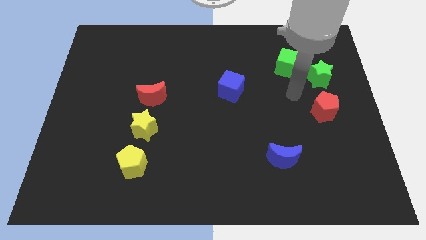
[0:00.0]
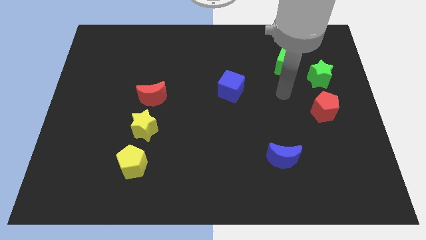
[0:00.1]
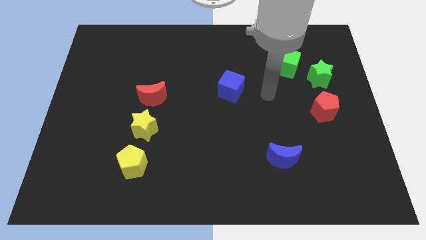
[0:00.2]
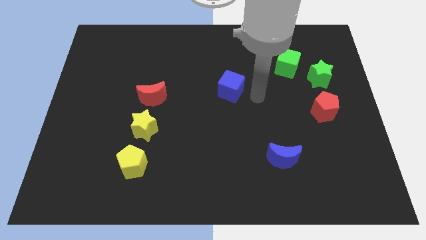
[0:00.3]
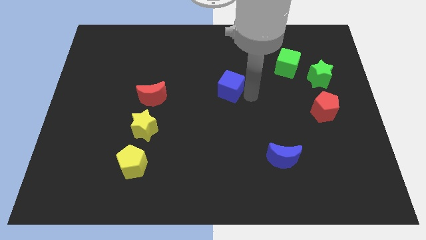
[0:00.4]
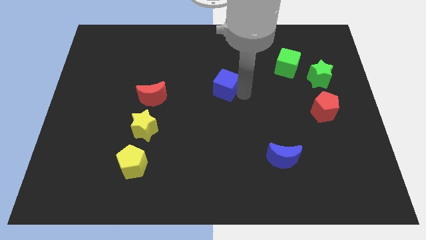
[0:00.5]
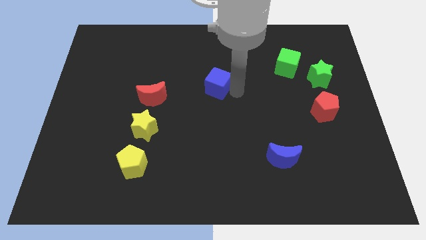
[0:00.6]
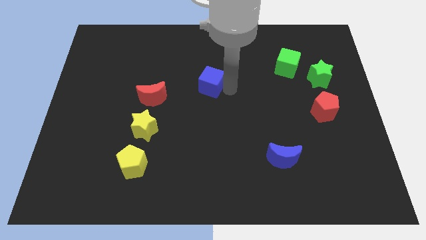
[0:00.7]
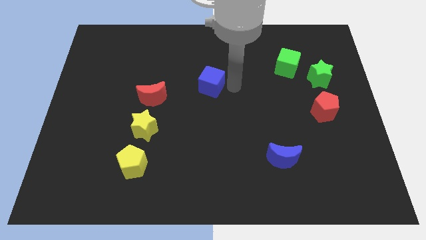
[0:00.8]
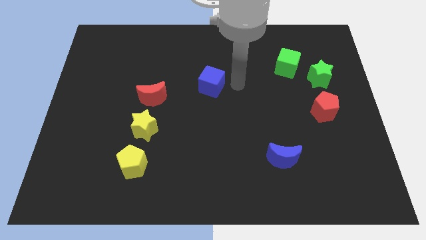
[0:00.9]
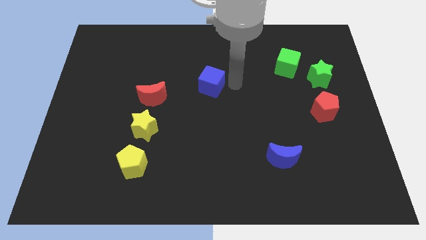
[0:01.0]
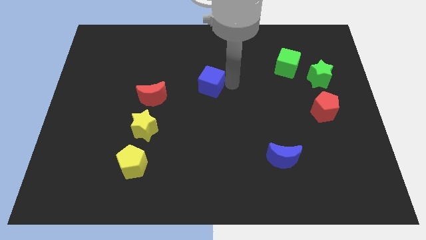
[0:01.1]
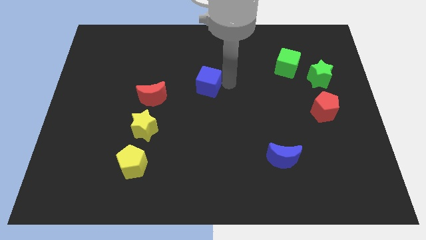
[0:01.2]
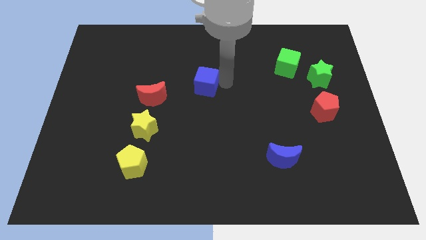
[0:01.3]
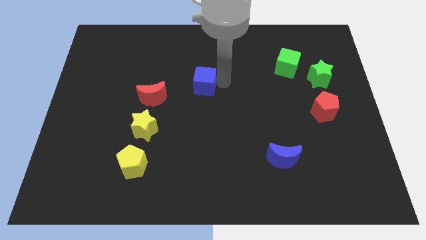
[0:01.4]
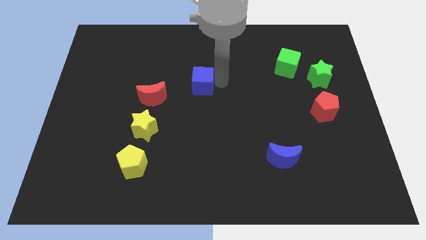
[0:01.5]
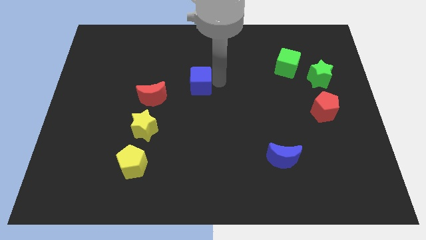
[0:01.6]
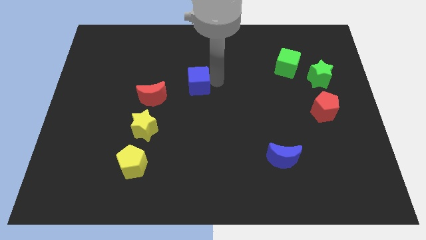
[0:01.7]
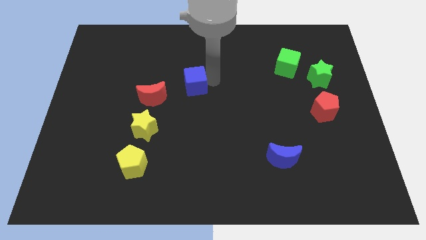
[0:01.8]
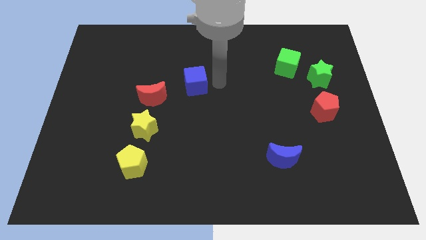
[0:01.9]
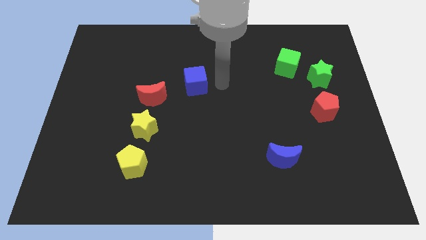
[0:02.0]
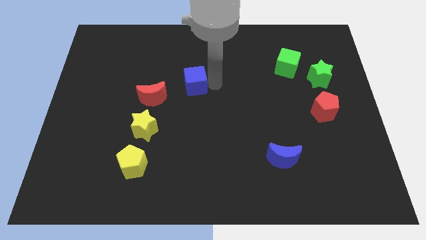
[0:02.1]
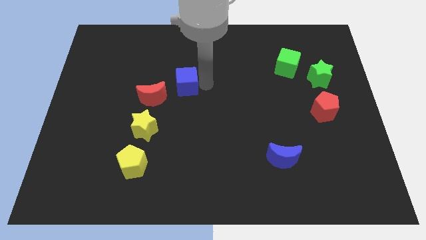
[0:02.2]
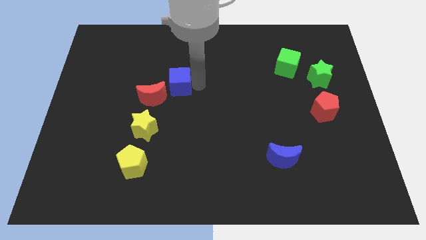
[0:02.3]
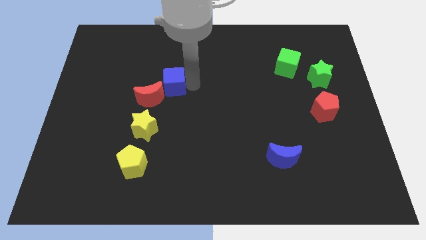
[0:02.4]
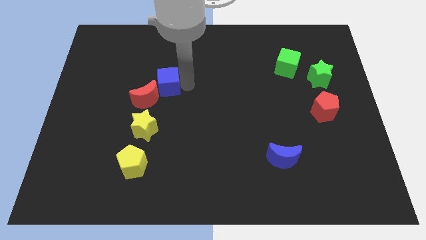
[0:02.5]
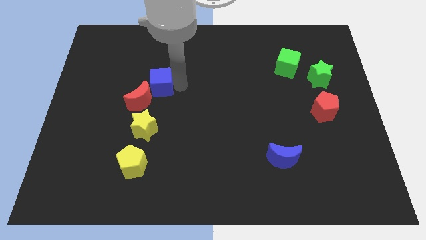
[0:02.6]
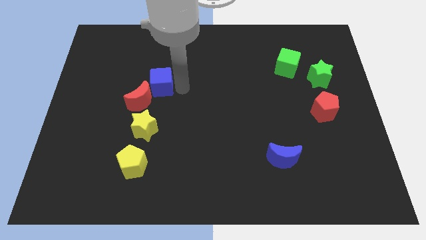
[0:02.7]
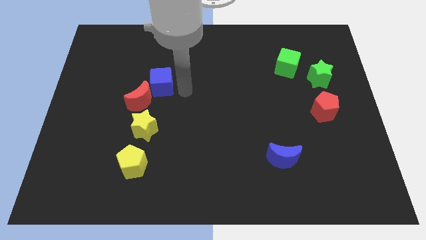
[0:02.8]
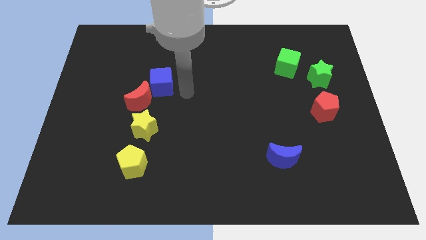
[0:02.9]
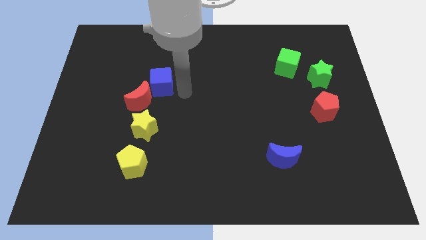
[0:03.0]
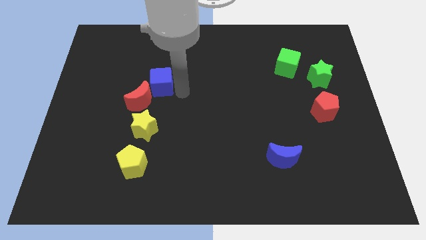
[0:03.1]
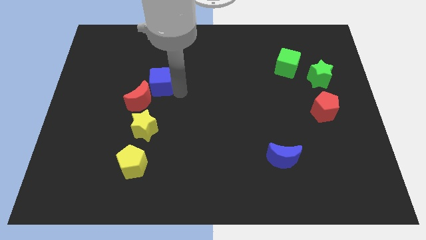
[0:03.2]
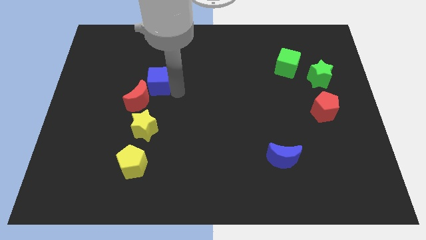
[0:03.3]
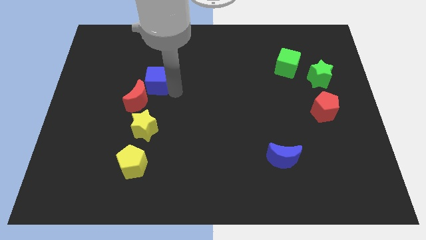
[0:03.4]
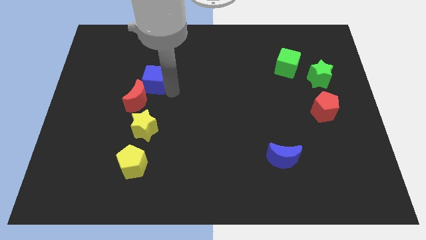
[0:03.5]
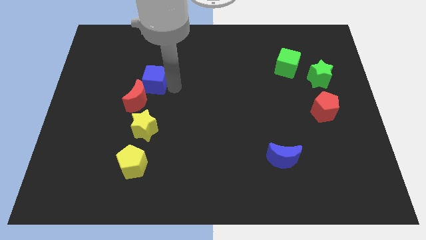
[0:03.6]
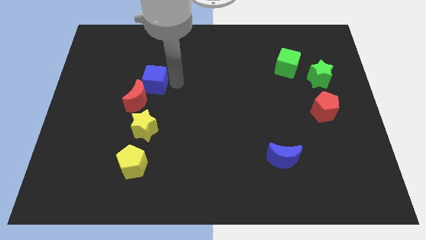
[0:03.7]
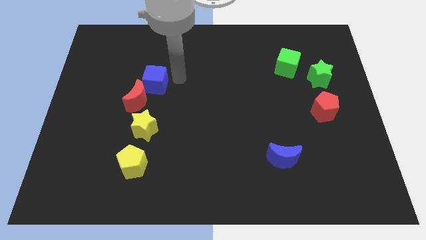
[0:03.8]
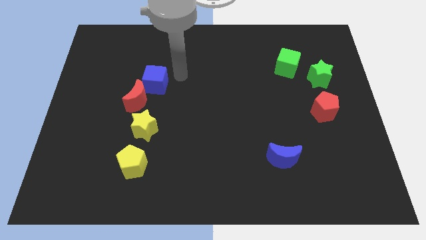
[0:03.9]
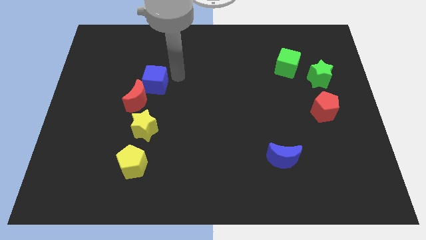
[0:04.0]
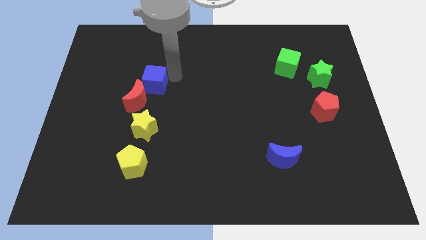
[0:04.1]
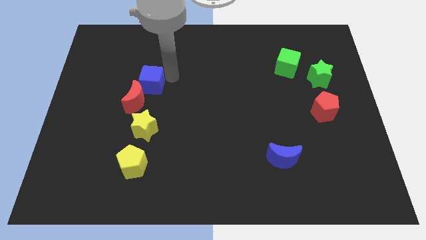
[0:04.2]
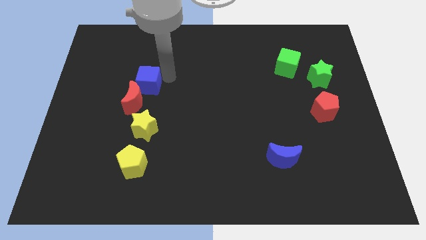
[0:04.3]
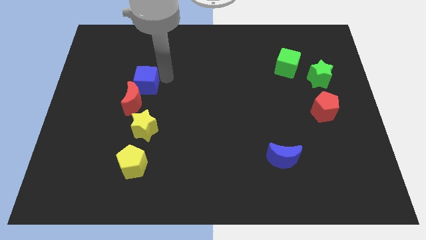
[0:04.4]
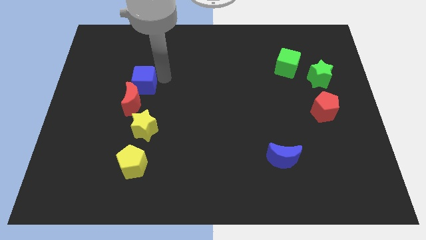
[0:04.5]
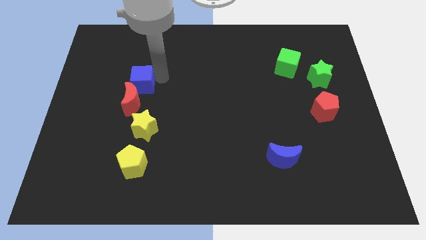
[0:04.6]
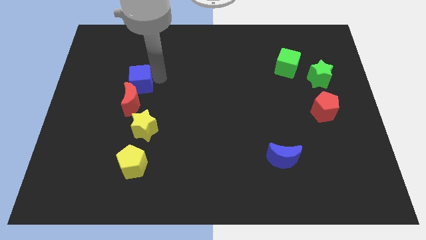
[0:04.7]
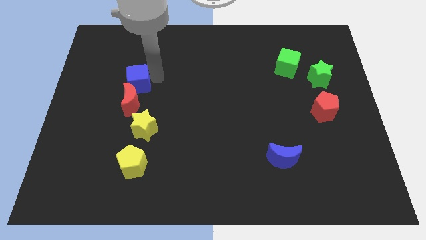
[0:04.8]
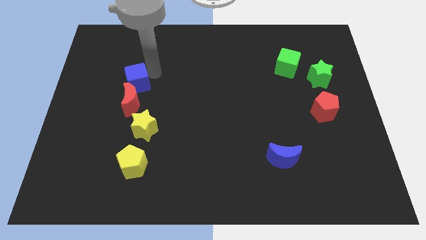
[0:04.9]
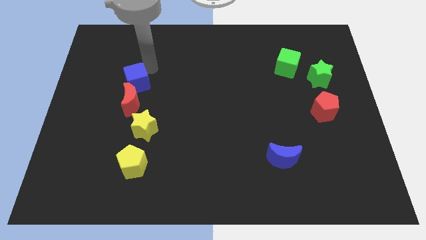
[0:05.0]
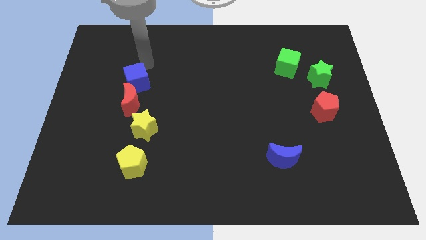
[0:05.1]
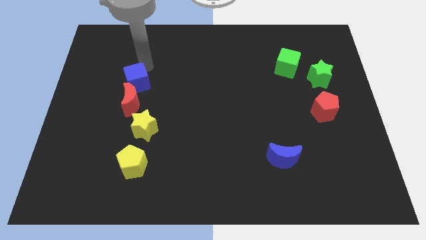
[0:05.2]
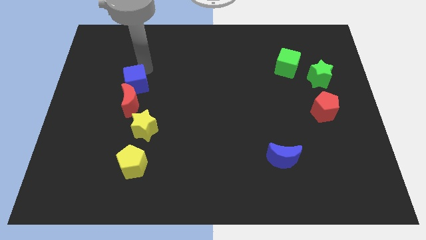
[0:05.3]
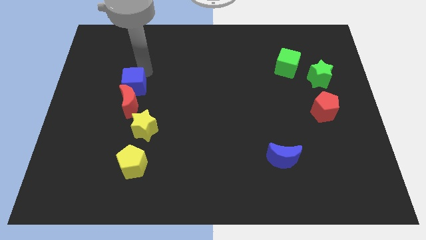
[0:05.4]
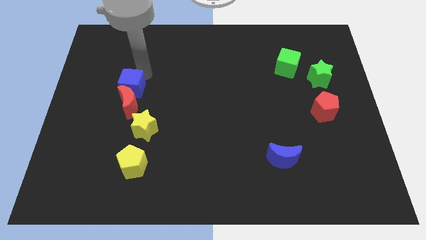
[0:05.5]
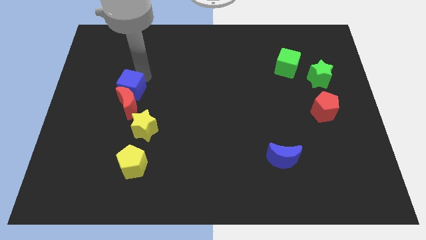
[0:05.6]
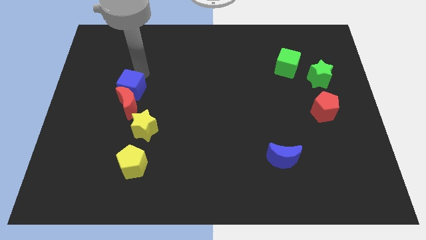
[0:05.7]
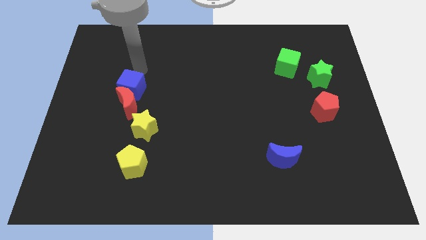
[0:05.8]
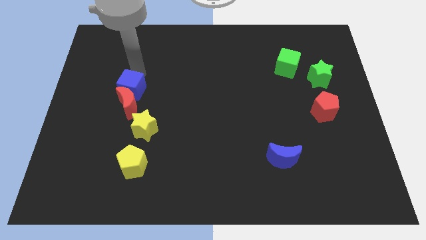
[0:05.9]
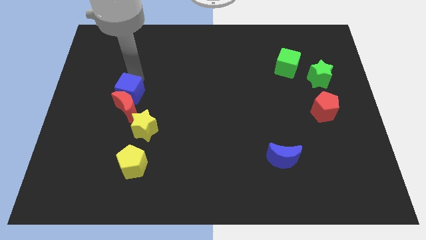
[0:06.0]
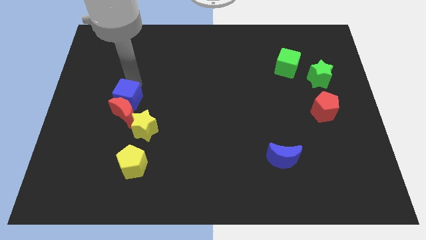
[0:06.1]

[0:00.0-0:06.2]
slide the blue cube diagonally up and to the left of the yellow star

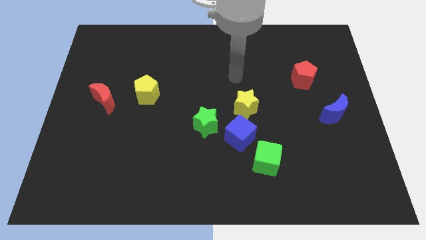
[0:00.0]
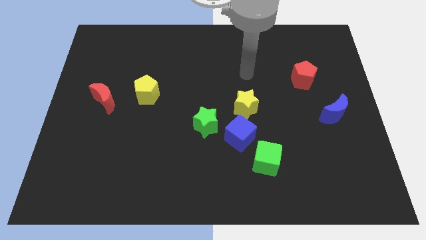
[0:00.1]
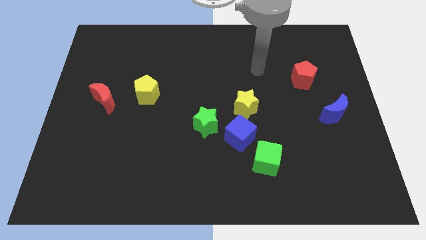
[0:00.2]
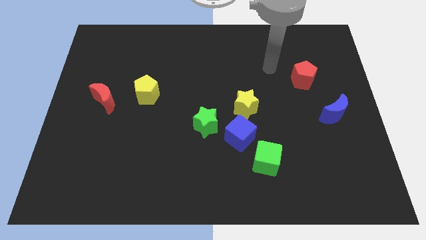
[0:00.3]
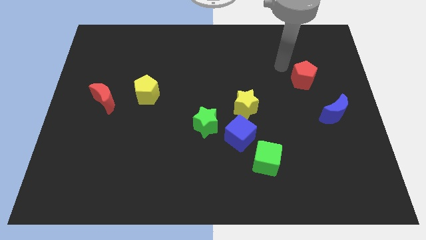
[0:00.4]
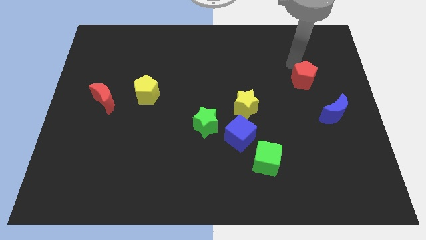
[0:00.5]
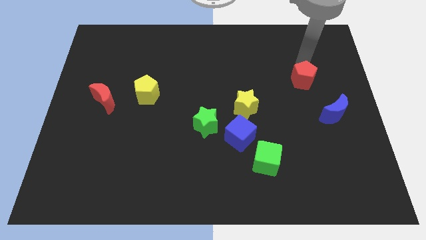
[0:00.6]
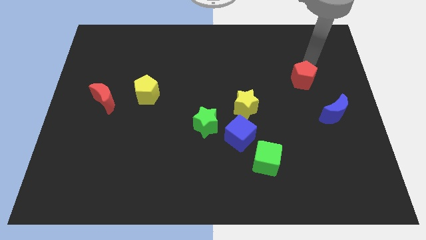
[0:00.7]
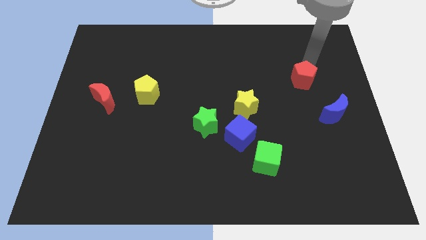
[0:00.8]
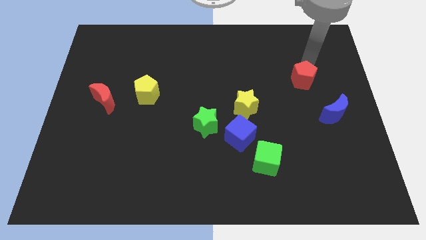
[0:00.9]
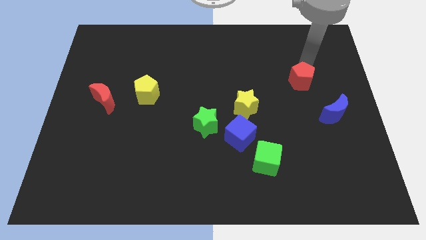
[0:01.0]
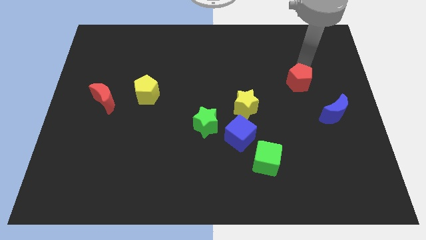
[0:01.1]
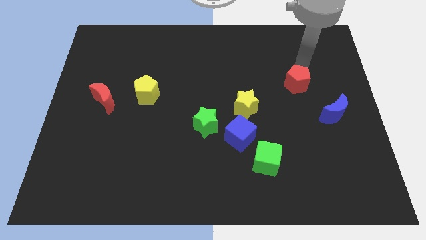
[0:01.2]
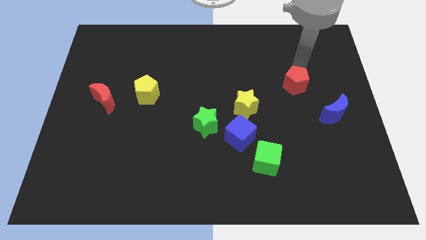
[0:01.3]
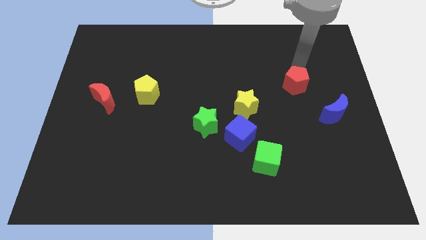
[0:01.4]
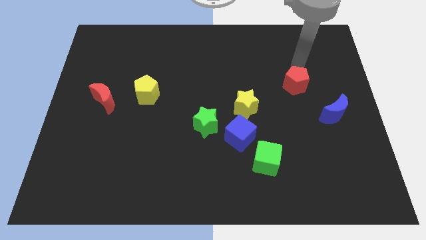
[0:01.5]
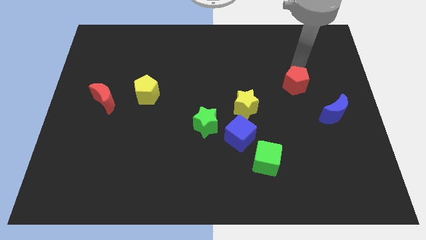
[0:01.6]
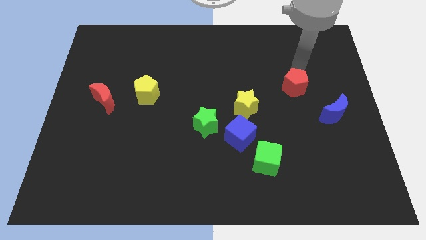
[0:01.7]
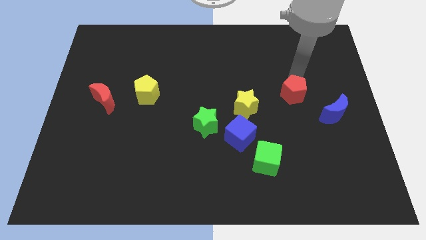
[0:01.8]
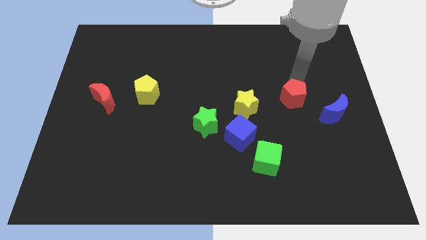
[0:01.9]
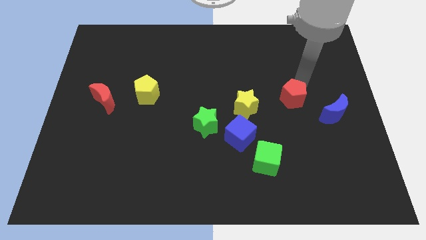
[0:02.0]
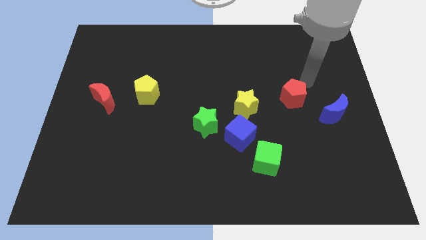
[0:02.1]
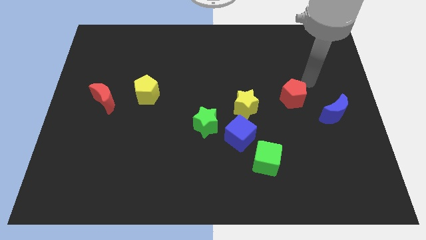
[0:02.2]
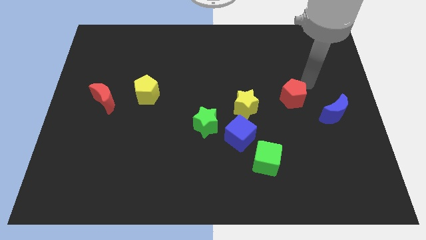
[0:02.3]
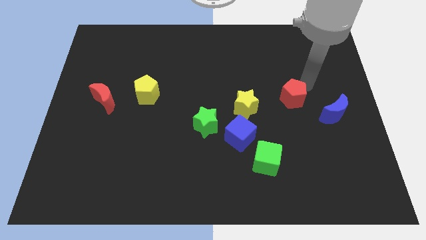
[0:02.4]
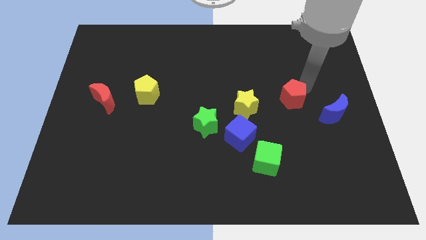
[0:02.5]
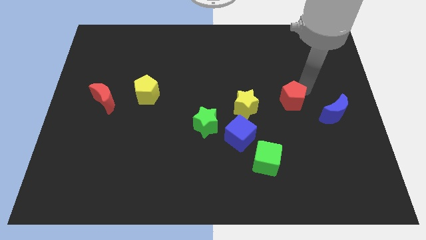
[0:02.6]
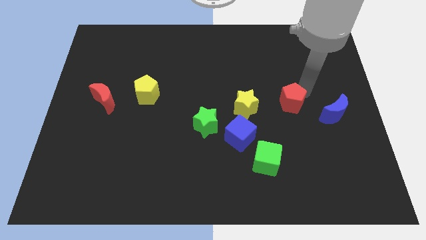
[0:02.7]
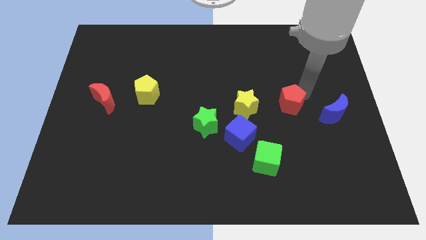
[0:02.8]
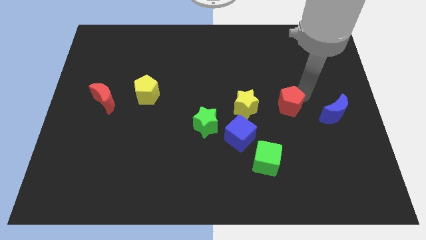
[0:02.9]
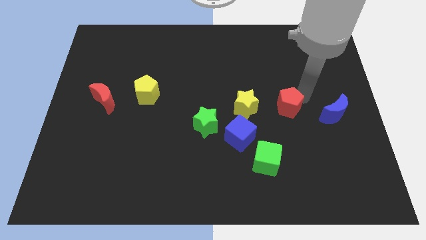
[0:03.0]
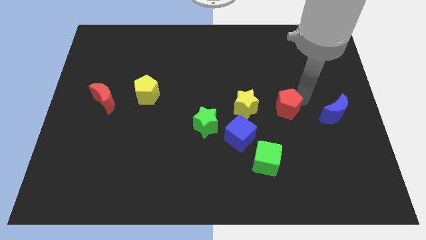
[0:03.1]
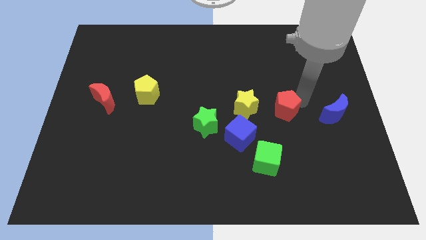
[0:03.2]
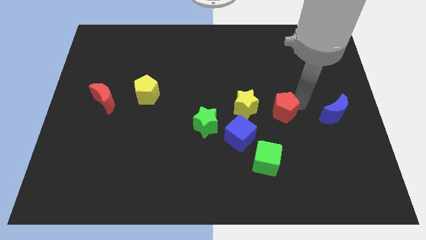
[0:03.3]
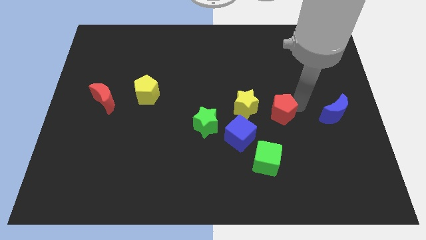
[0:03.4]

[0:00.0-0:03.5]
put the red pentagon to the top right side of the blue cube
